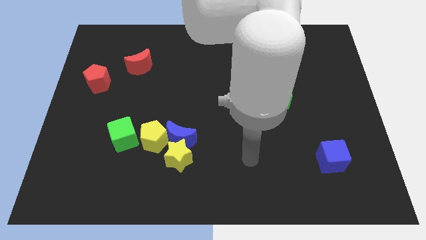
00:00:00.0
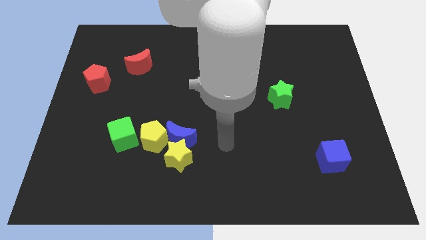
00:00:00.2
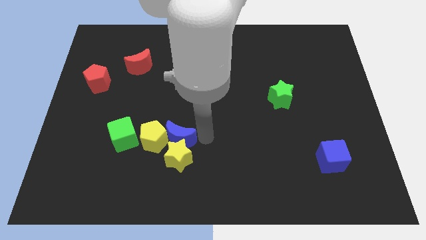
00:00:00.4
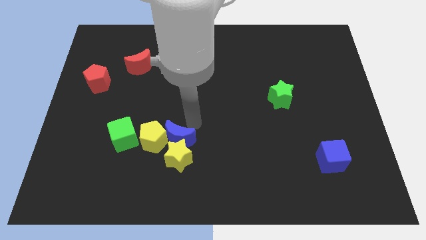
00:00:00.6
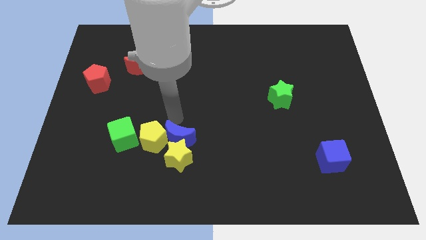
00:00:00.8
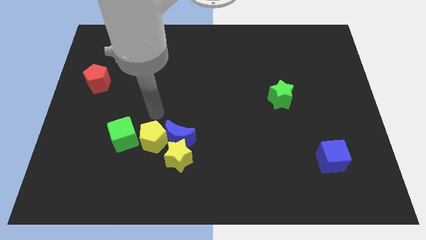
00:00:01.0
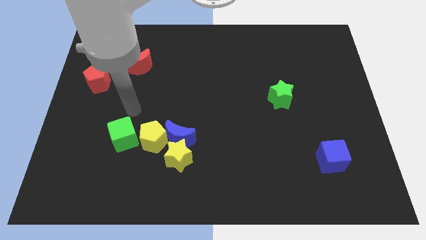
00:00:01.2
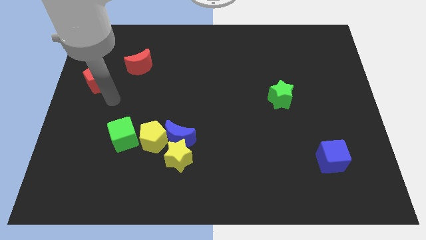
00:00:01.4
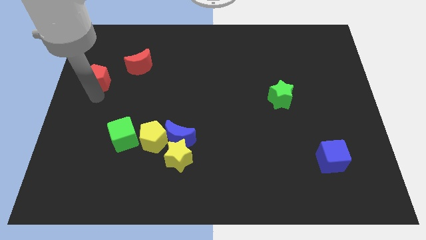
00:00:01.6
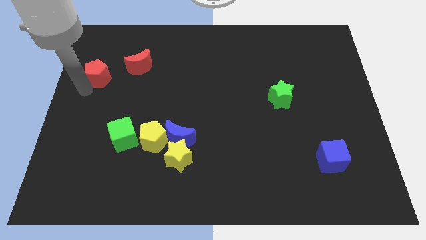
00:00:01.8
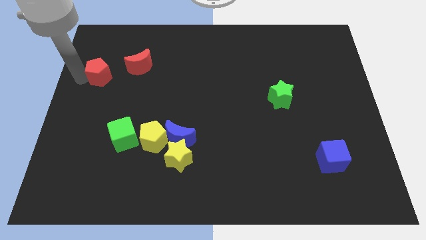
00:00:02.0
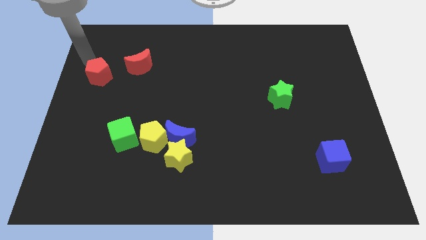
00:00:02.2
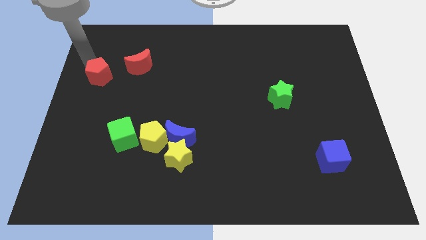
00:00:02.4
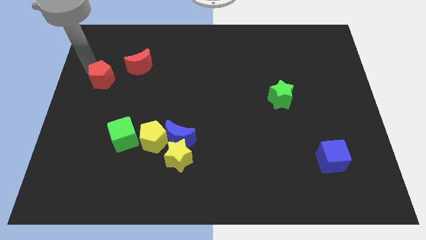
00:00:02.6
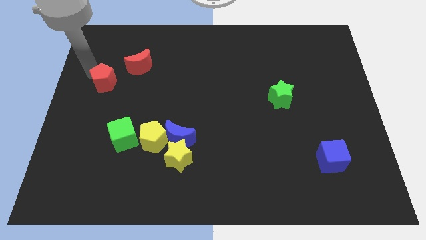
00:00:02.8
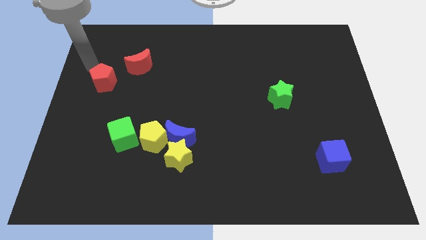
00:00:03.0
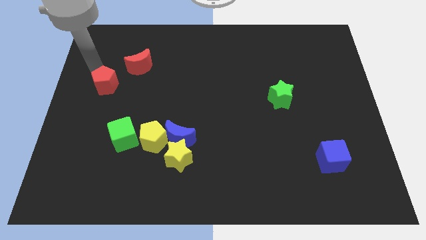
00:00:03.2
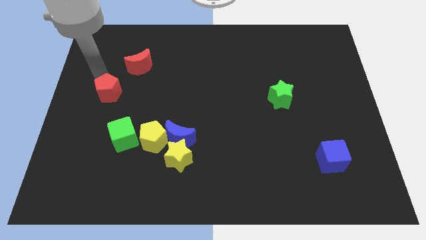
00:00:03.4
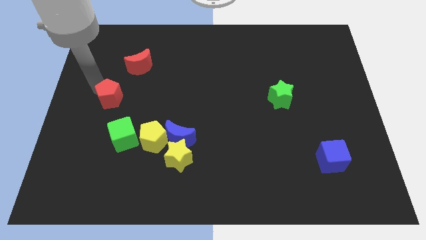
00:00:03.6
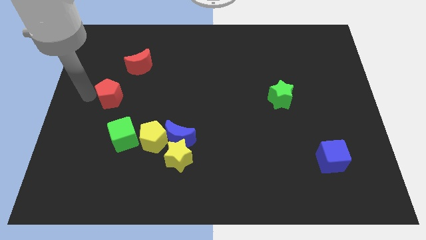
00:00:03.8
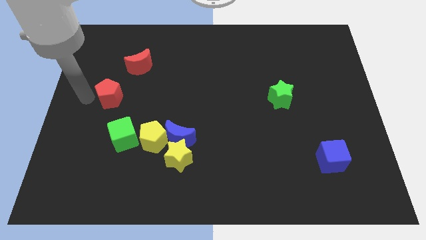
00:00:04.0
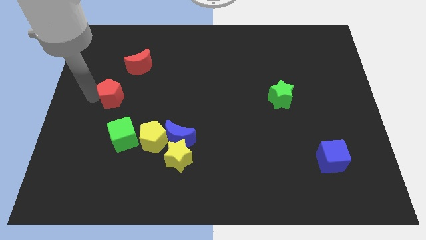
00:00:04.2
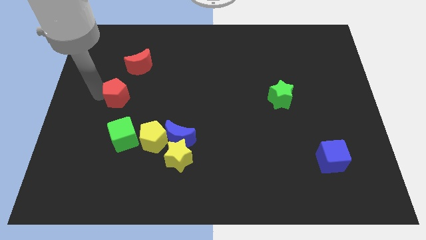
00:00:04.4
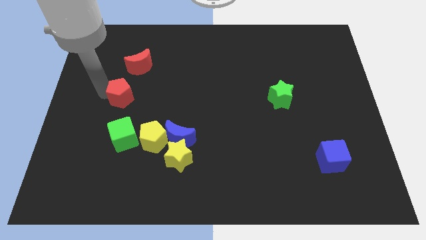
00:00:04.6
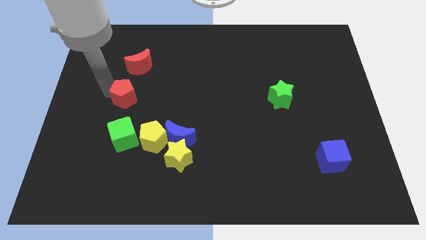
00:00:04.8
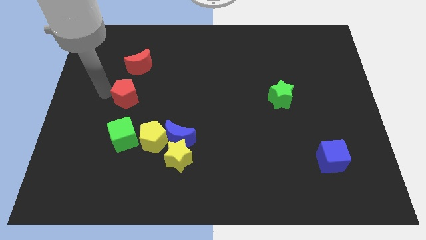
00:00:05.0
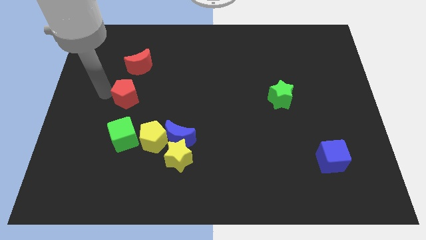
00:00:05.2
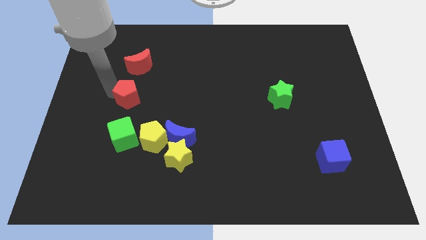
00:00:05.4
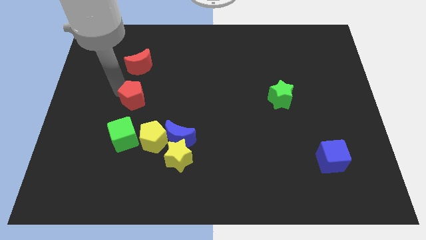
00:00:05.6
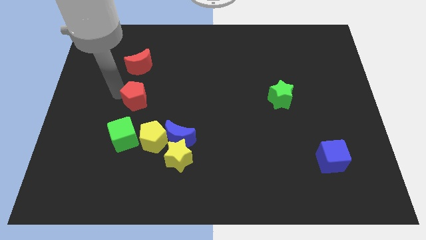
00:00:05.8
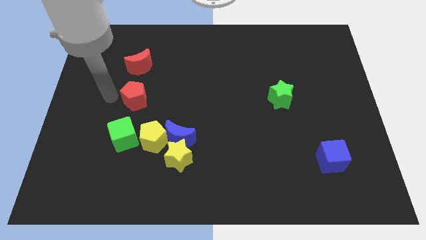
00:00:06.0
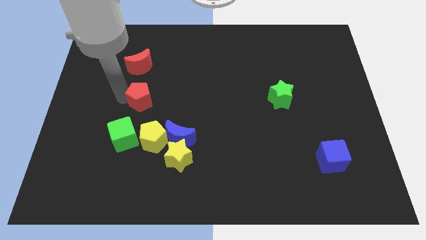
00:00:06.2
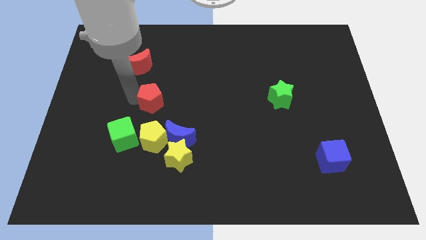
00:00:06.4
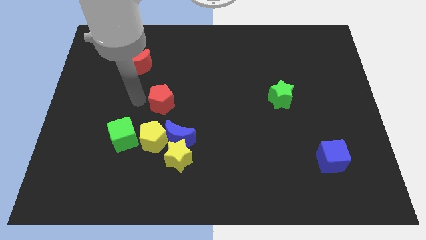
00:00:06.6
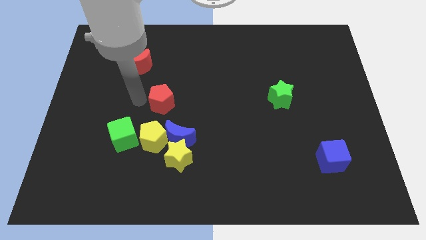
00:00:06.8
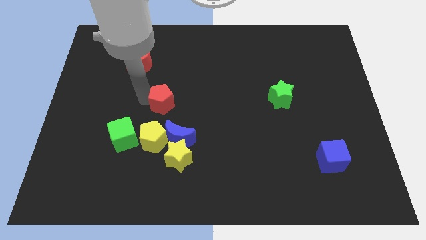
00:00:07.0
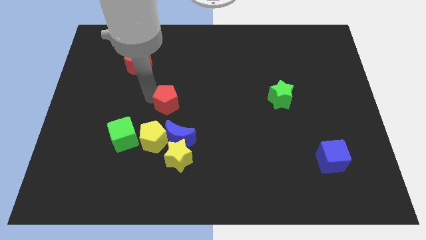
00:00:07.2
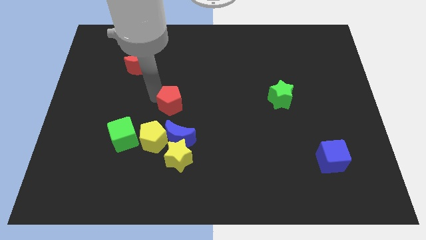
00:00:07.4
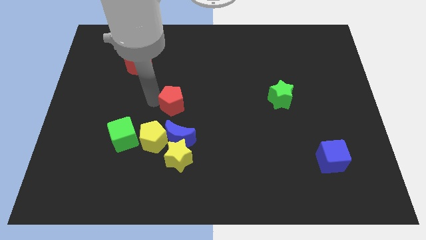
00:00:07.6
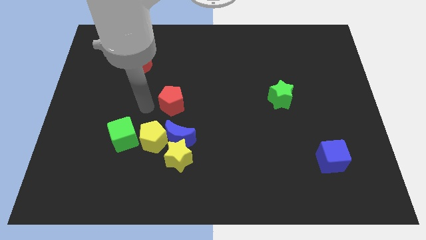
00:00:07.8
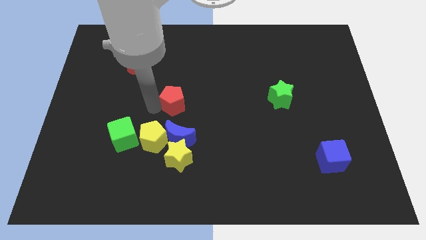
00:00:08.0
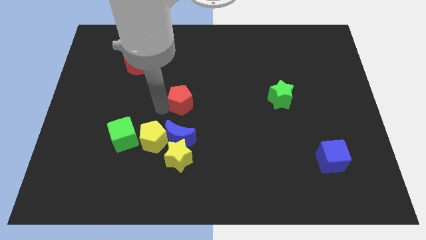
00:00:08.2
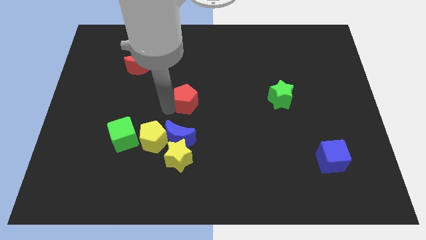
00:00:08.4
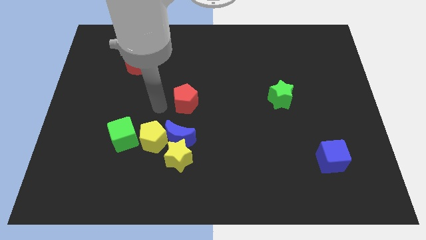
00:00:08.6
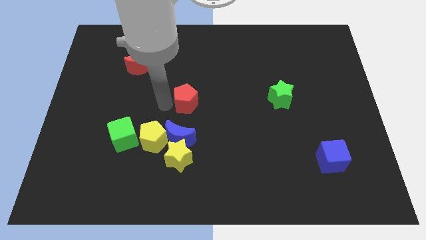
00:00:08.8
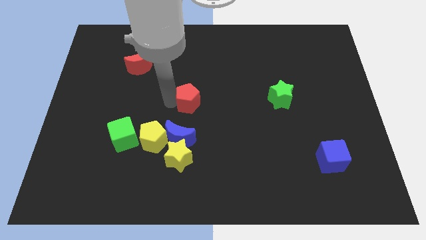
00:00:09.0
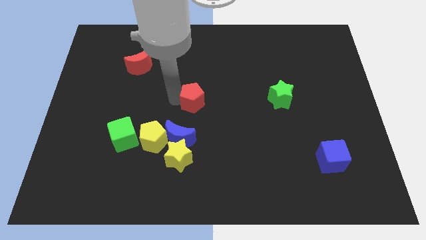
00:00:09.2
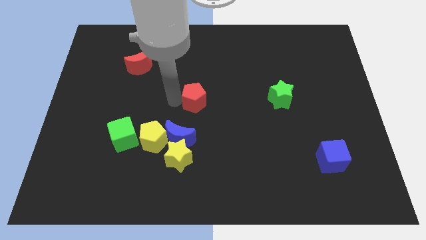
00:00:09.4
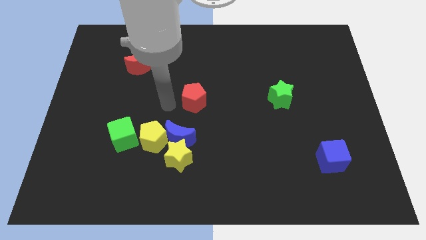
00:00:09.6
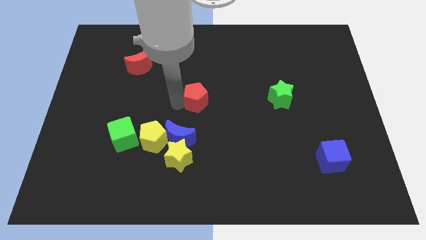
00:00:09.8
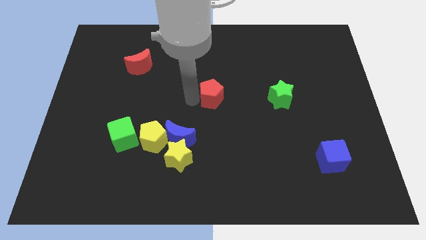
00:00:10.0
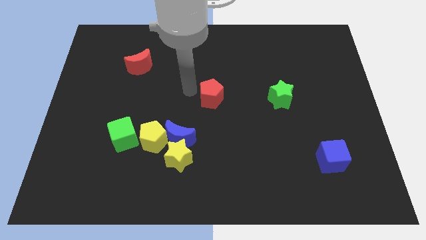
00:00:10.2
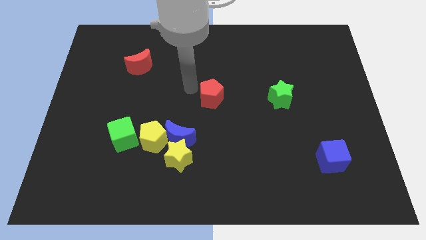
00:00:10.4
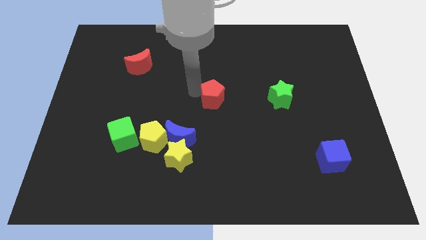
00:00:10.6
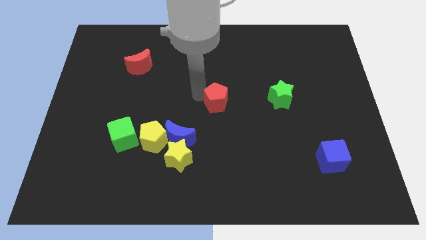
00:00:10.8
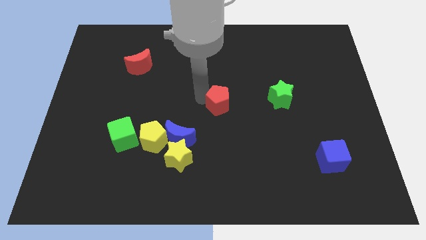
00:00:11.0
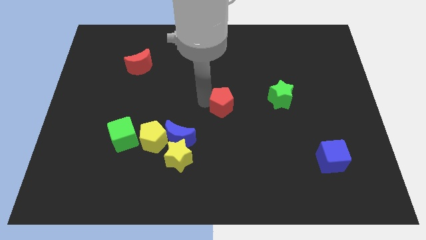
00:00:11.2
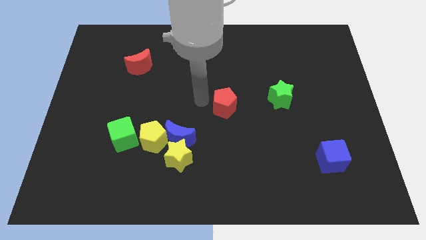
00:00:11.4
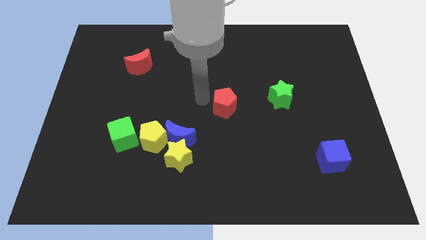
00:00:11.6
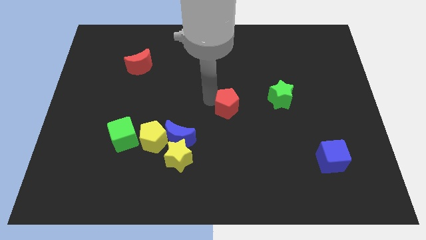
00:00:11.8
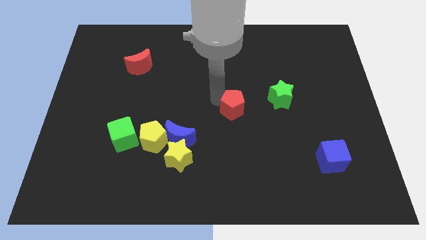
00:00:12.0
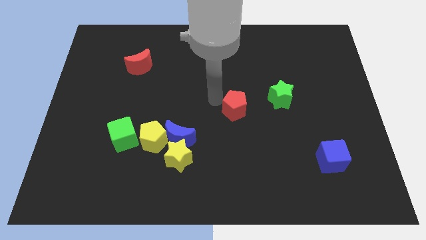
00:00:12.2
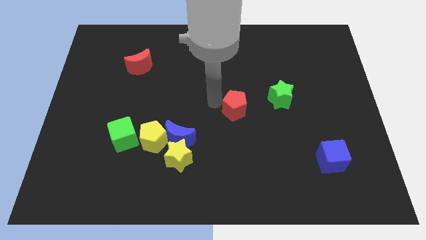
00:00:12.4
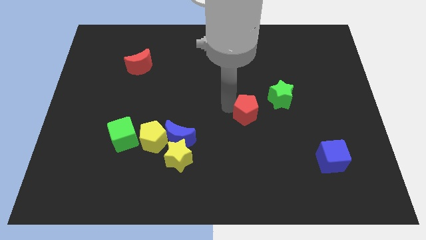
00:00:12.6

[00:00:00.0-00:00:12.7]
slide the red pentagon to the bottom left of the green star

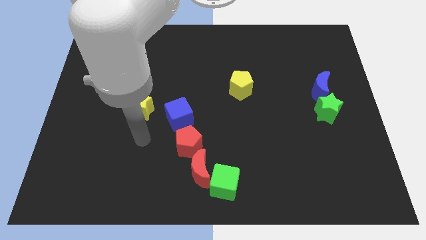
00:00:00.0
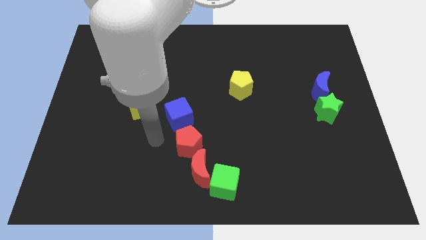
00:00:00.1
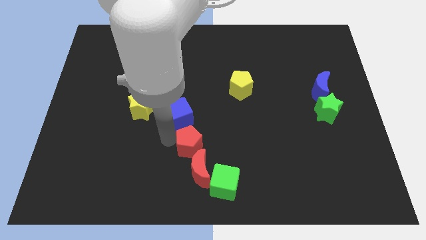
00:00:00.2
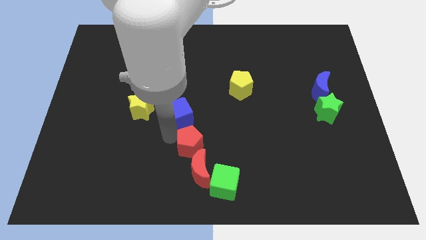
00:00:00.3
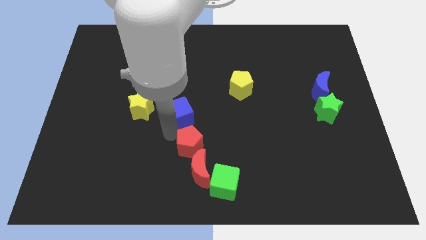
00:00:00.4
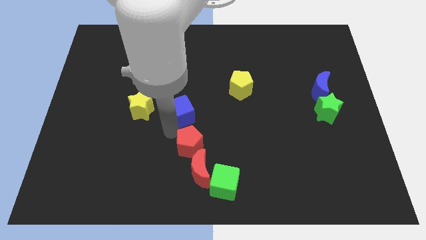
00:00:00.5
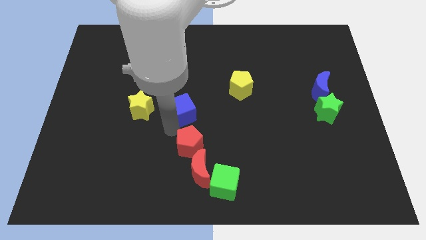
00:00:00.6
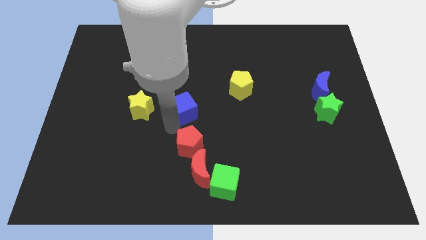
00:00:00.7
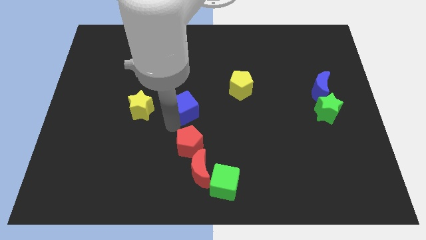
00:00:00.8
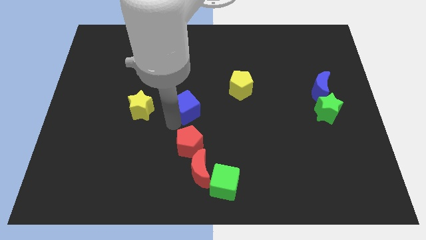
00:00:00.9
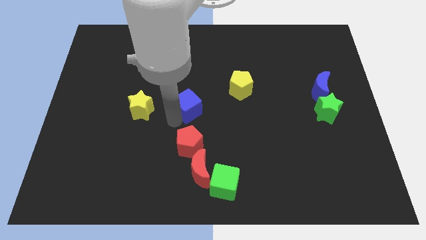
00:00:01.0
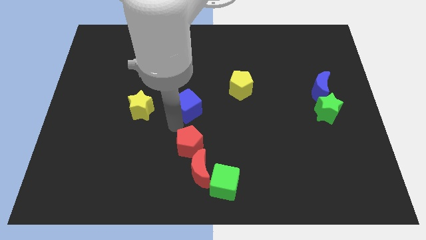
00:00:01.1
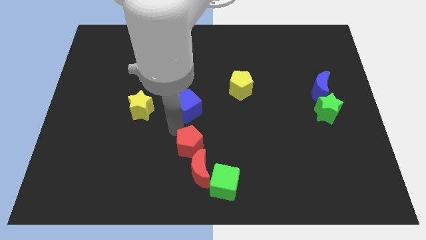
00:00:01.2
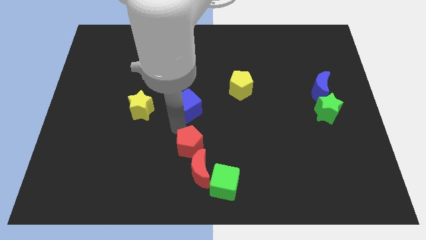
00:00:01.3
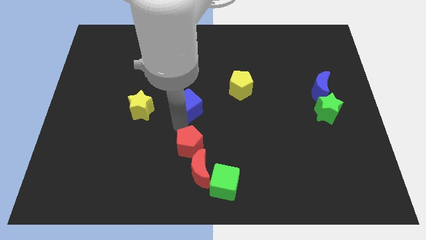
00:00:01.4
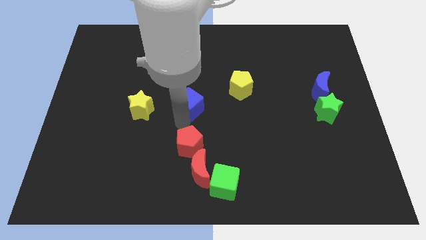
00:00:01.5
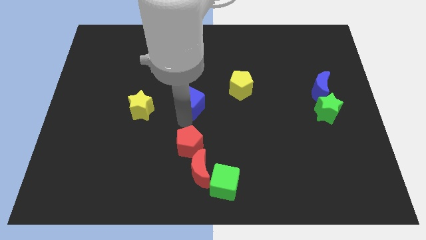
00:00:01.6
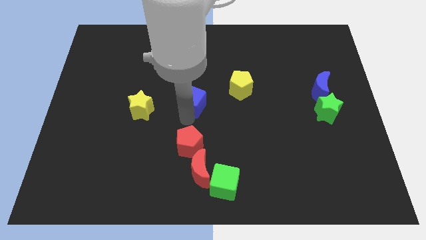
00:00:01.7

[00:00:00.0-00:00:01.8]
move the blue cube just left of the yellow pentagon
